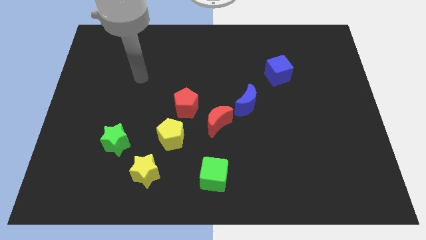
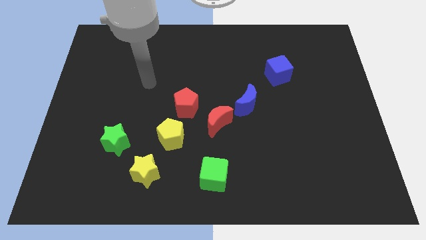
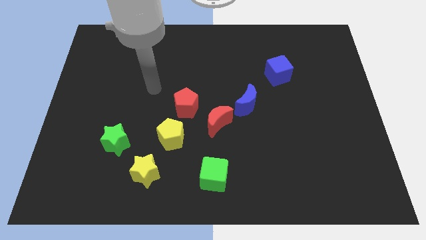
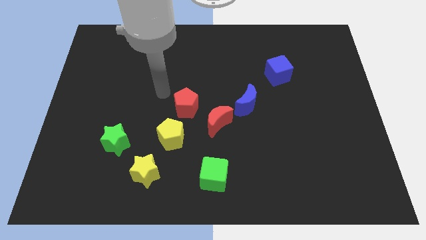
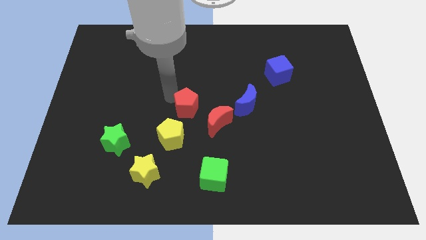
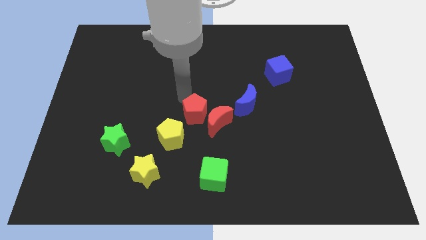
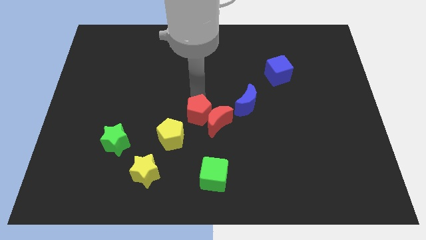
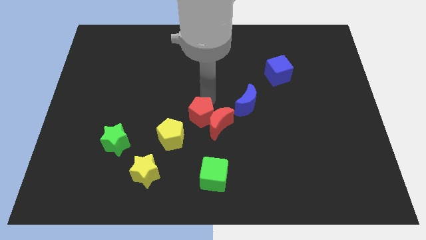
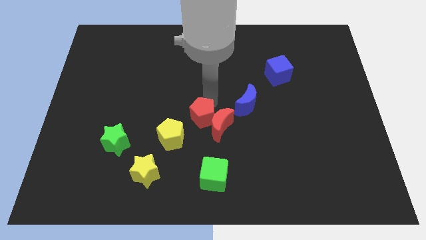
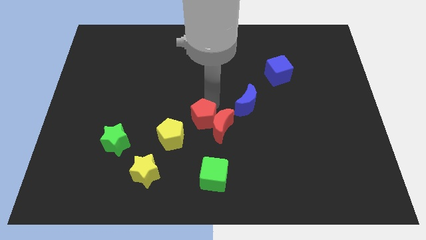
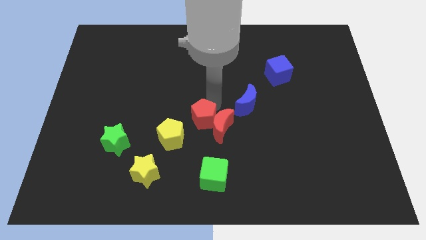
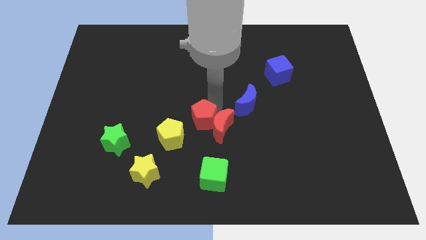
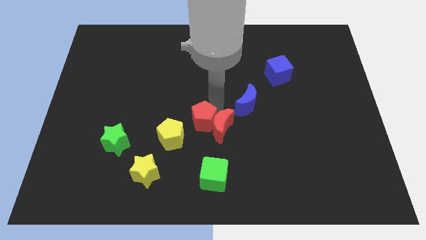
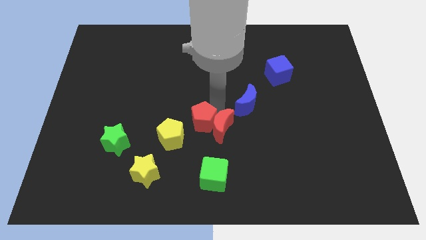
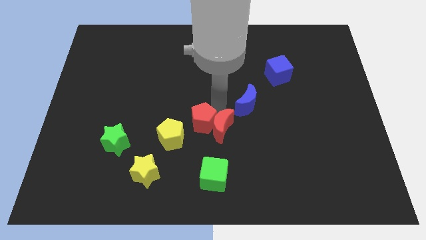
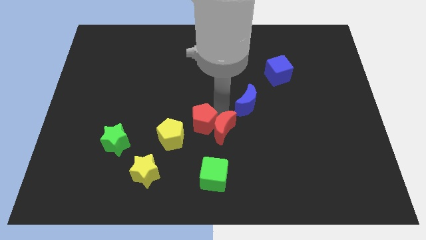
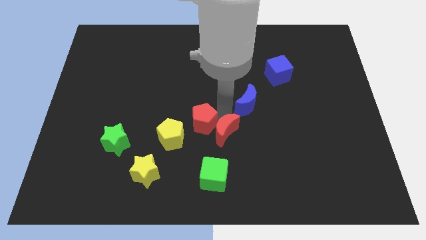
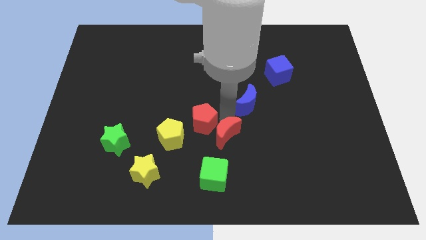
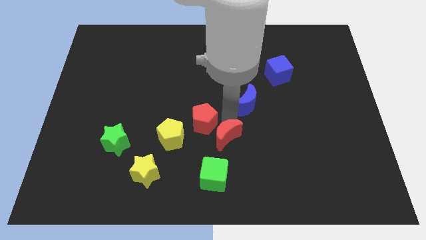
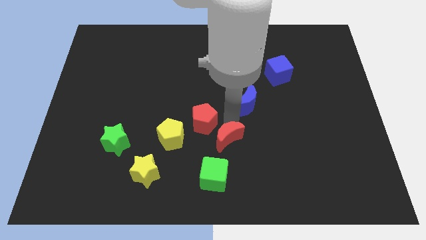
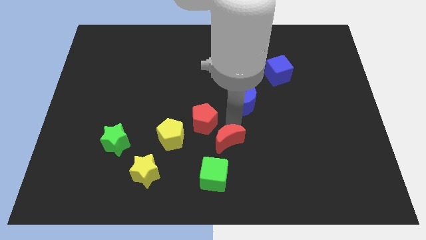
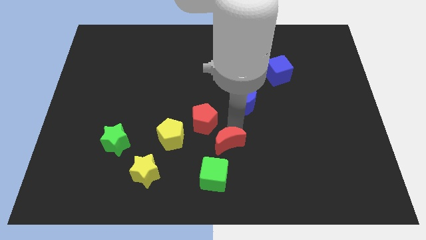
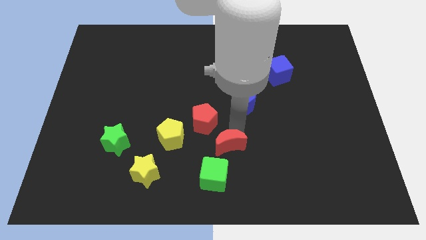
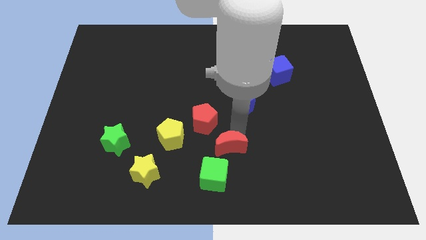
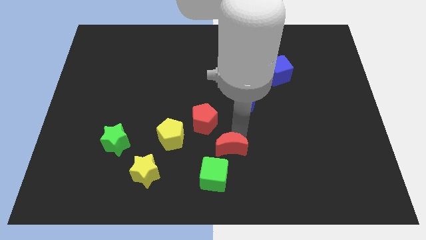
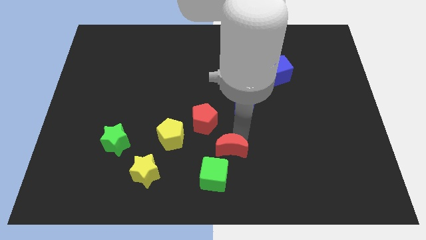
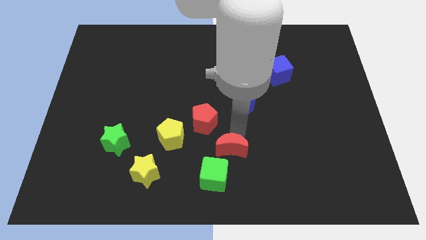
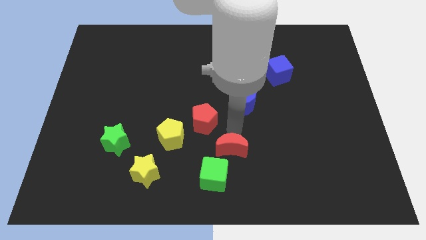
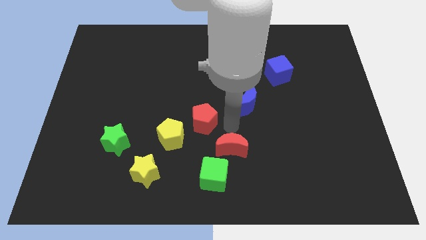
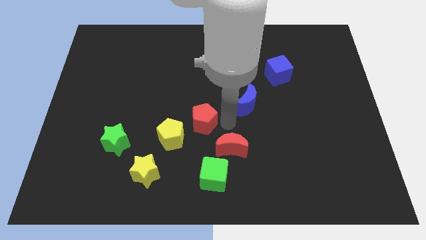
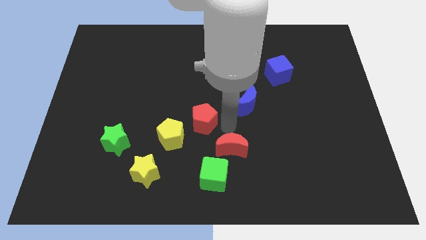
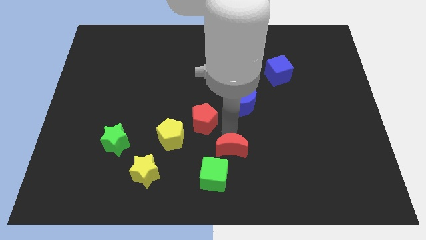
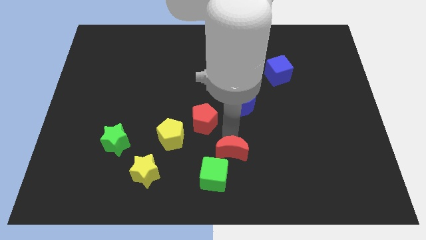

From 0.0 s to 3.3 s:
separate the red moon from the red pentagon and blue moon

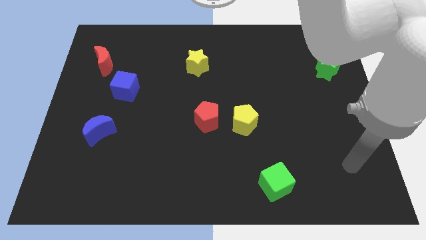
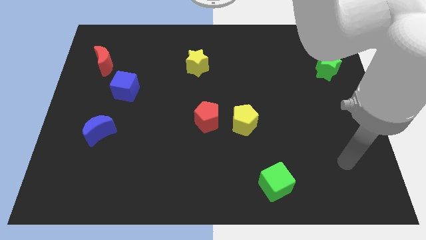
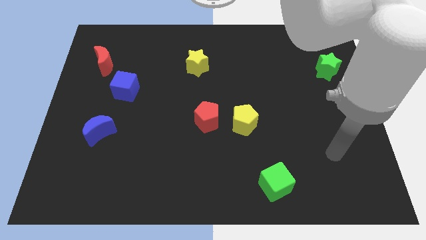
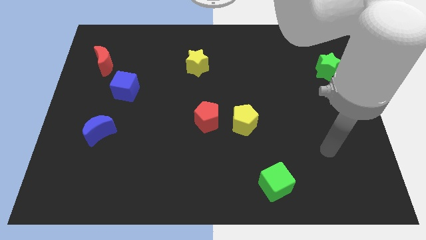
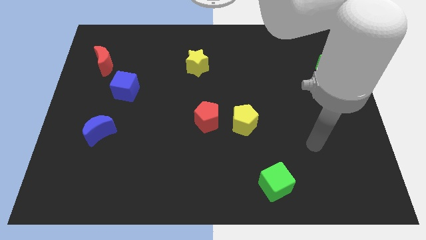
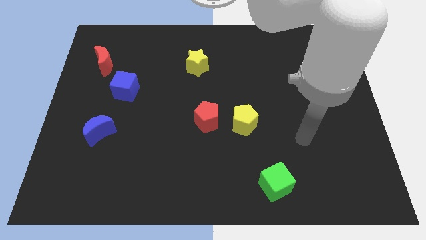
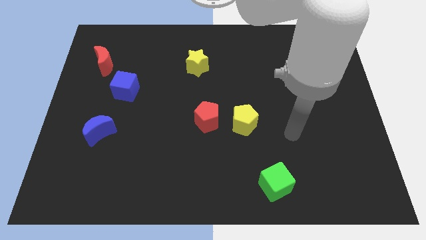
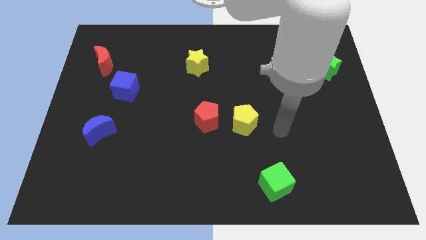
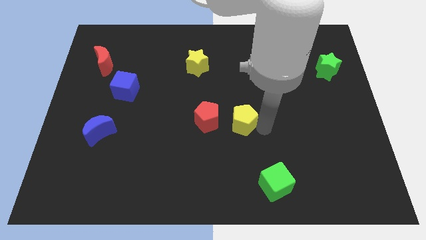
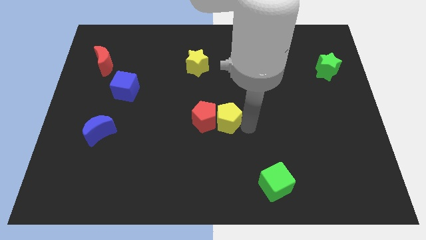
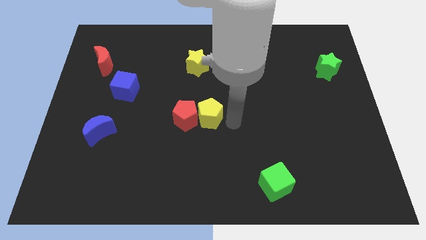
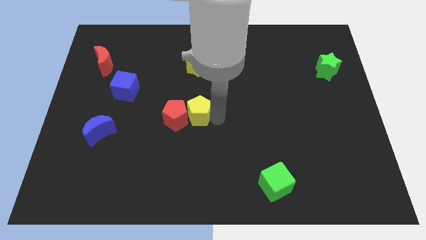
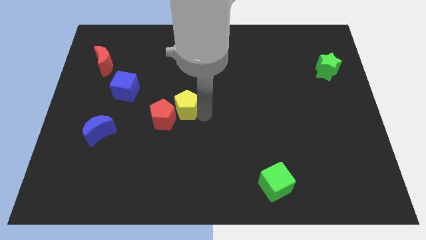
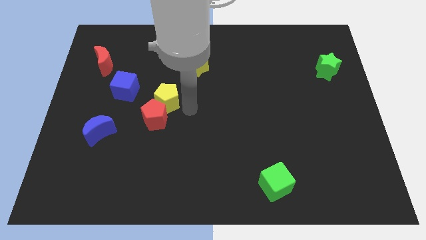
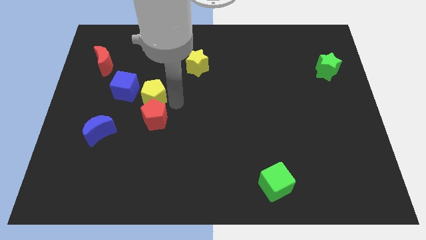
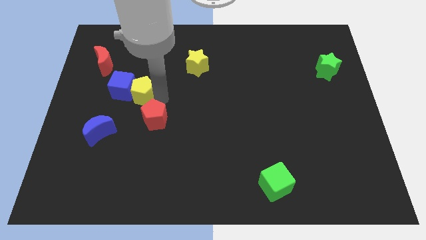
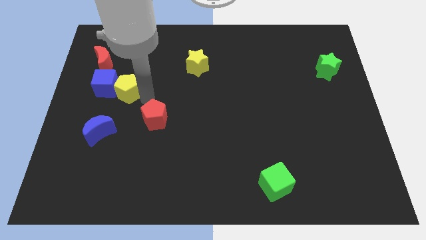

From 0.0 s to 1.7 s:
pull the red pentagon apart from the yellow pentagon

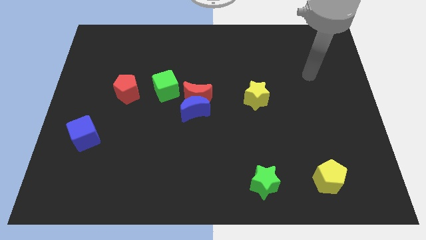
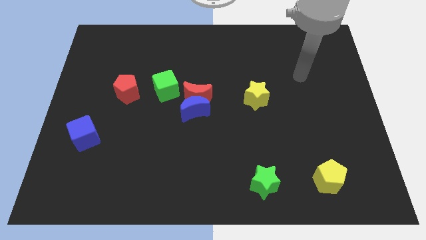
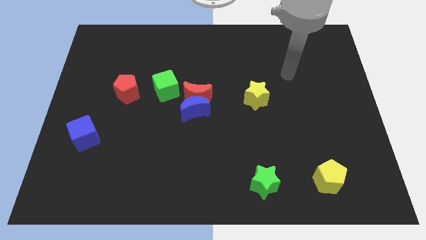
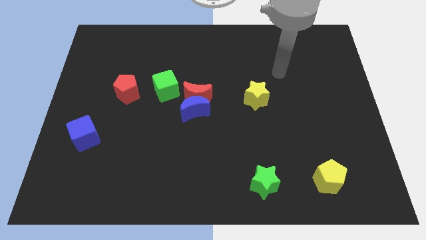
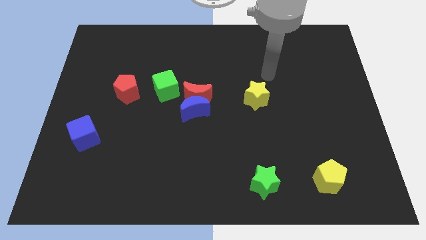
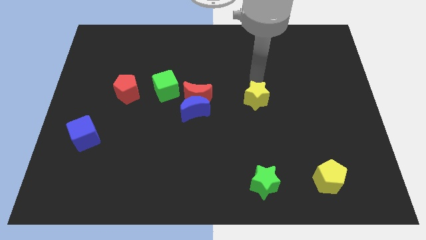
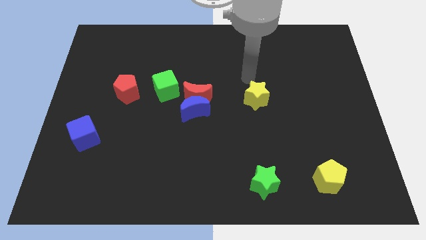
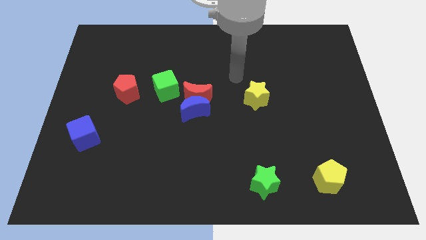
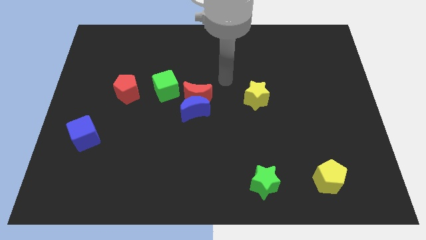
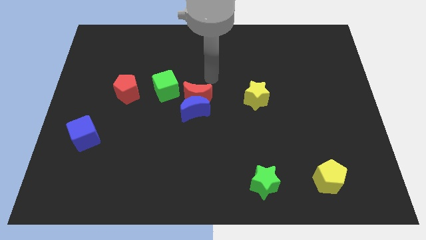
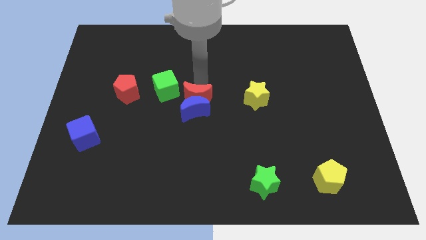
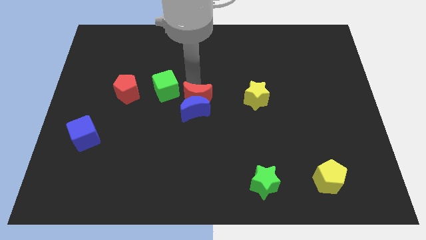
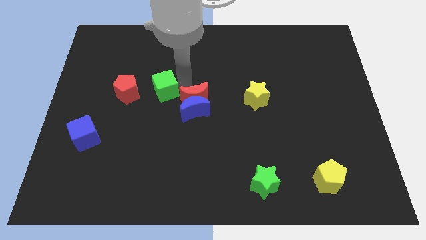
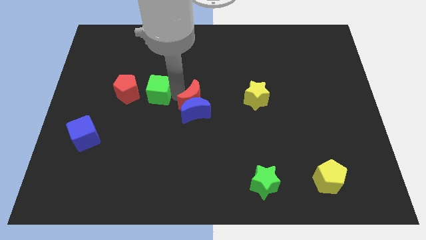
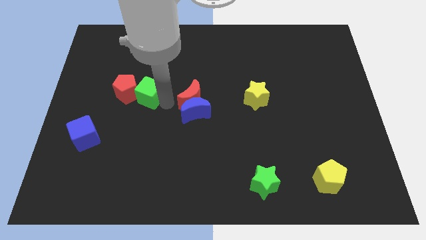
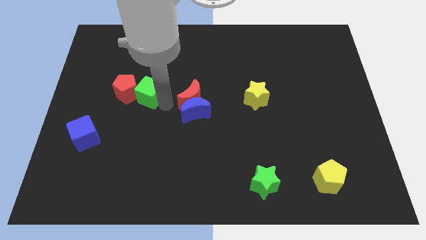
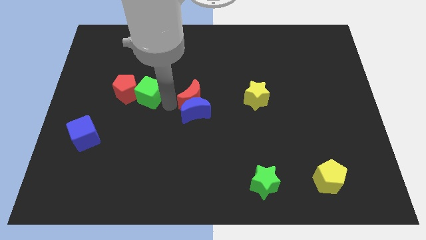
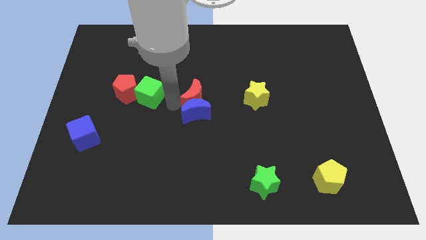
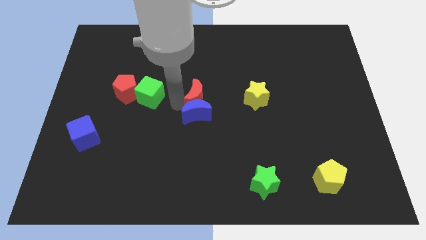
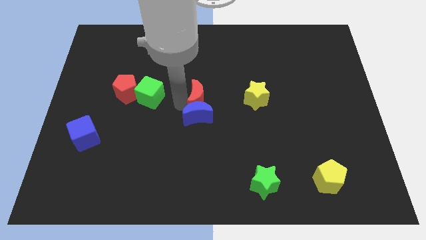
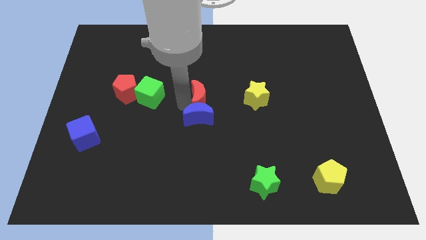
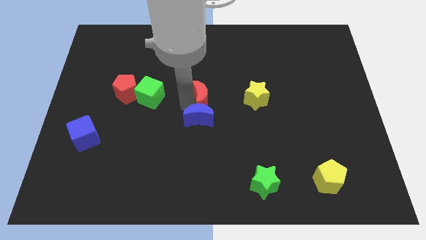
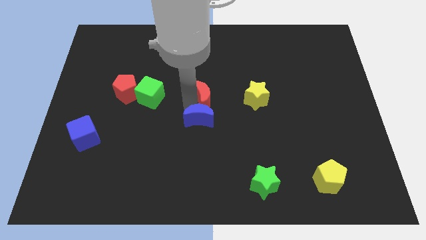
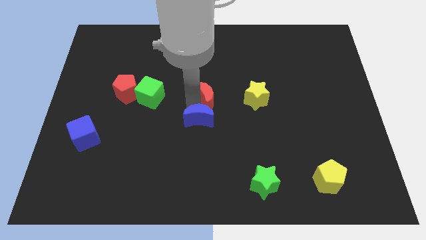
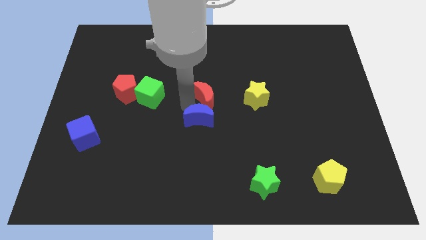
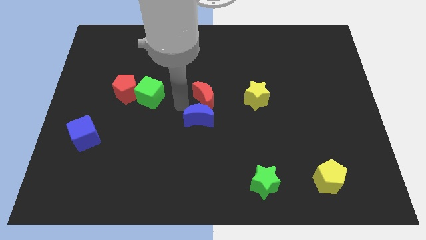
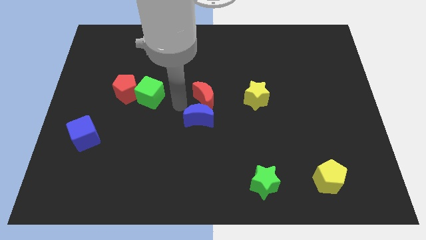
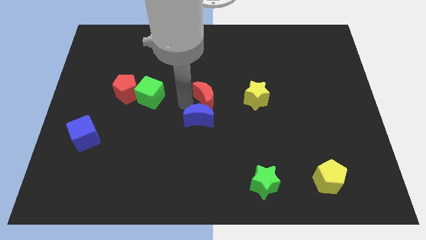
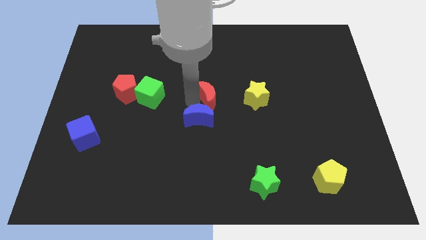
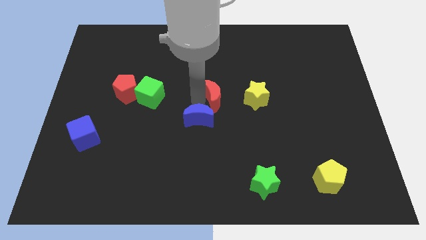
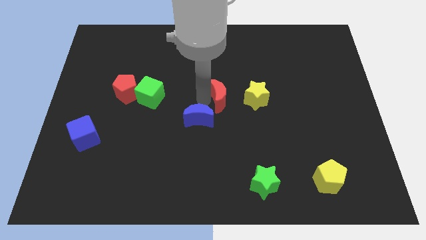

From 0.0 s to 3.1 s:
move the red moon away from the blue moon and green cube

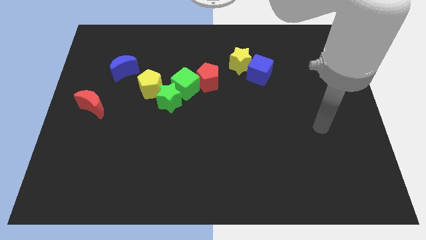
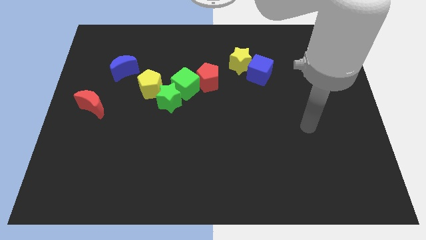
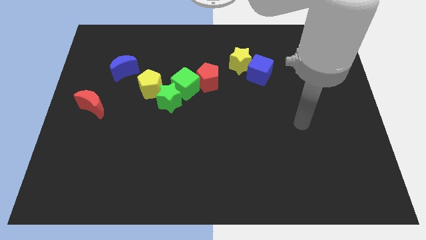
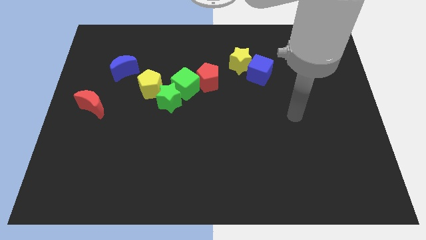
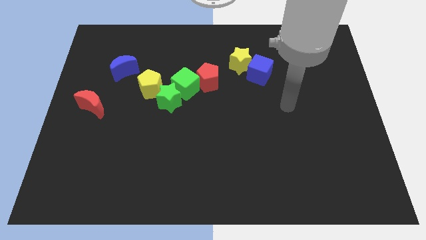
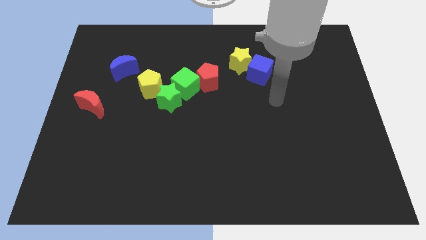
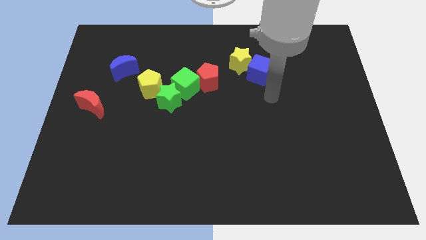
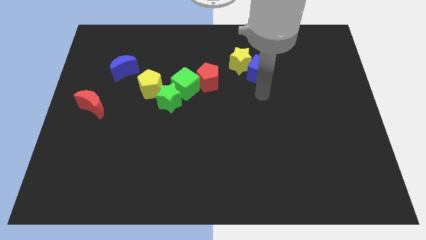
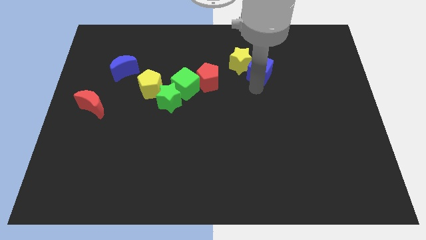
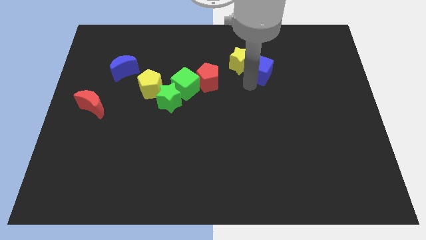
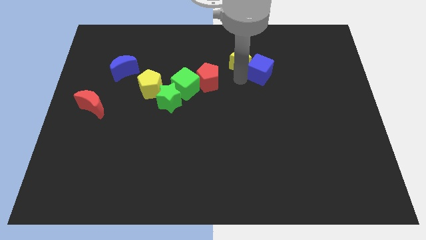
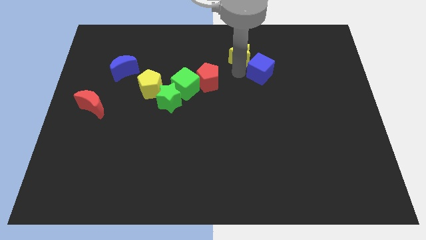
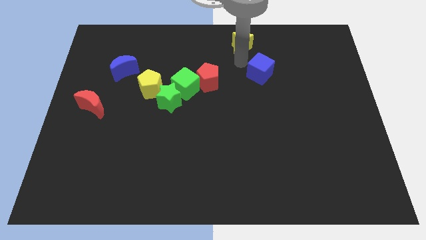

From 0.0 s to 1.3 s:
separate the blue cube from the yellow star
